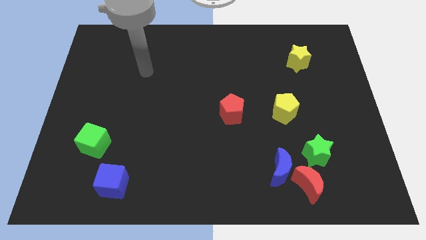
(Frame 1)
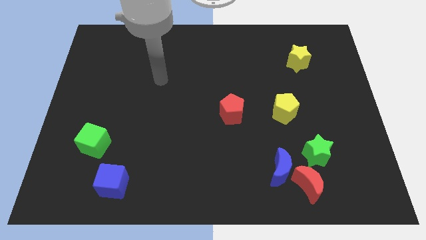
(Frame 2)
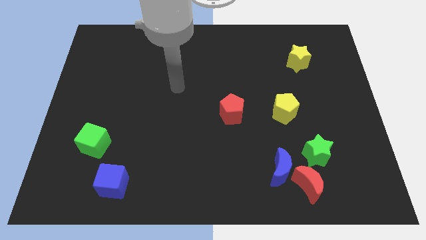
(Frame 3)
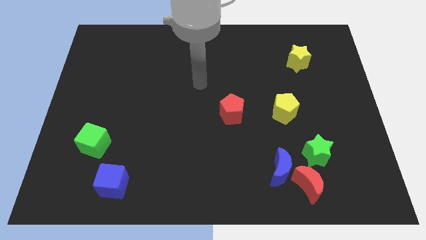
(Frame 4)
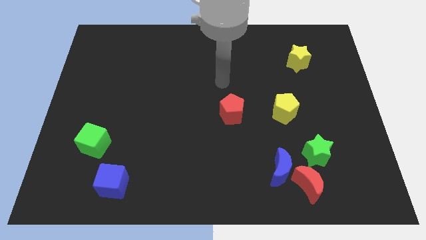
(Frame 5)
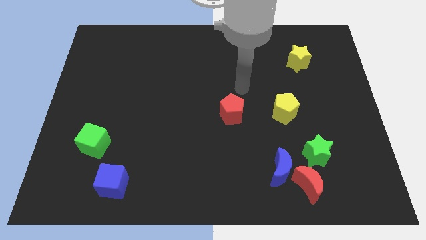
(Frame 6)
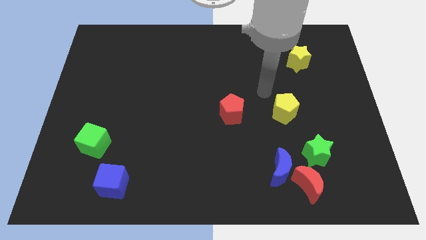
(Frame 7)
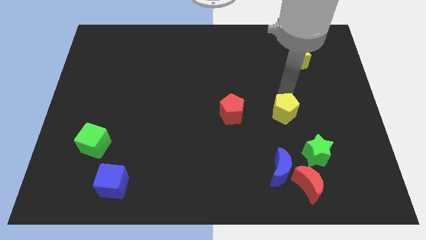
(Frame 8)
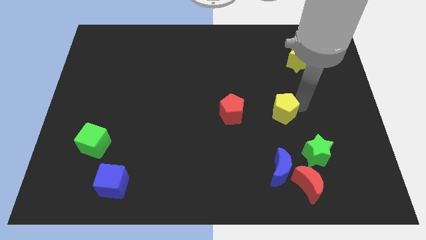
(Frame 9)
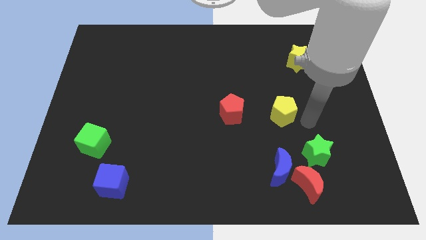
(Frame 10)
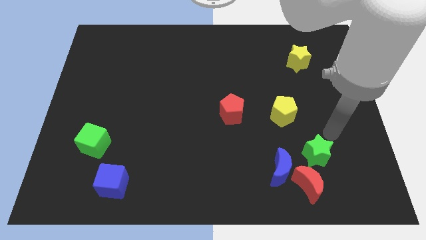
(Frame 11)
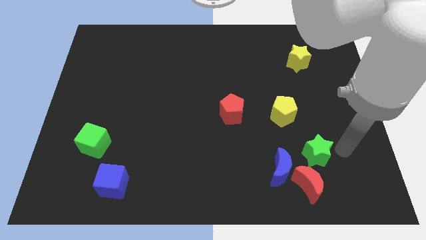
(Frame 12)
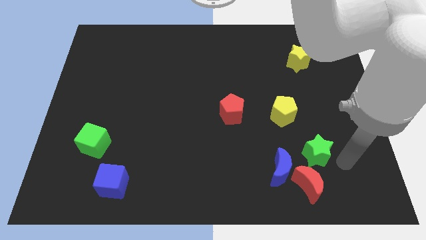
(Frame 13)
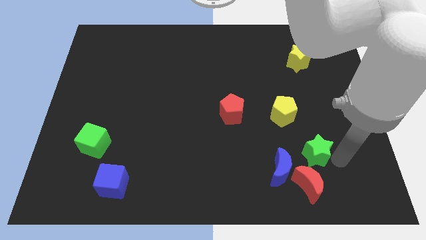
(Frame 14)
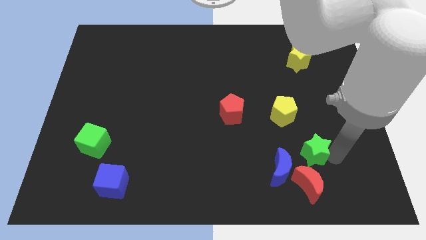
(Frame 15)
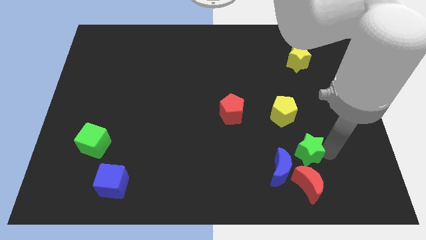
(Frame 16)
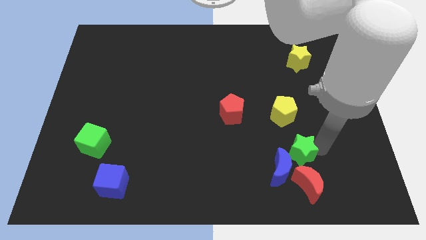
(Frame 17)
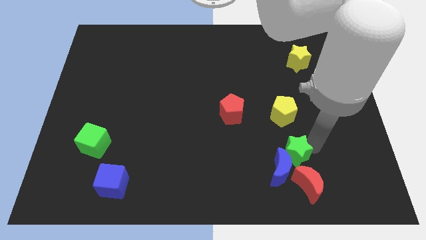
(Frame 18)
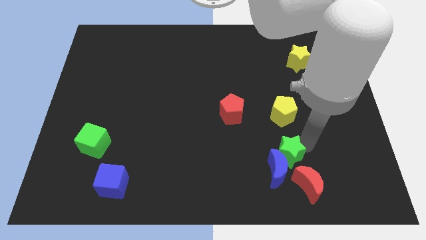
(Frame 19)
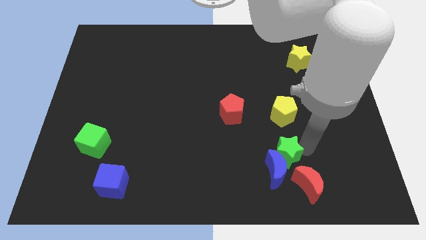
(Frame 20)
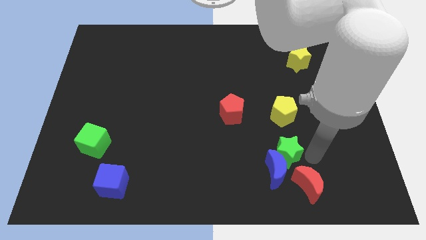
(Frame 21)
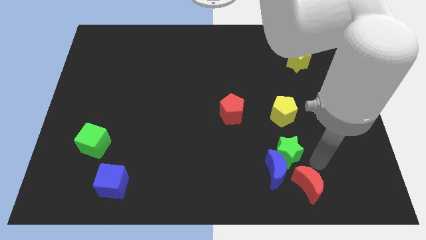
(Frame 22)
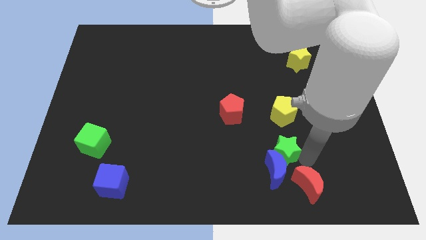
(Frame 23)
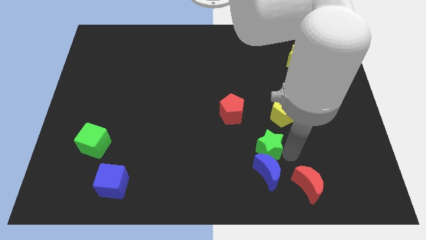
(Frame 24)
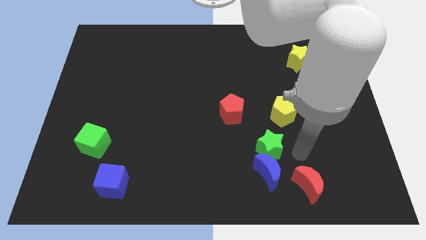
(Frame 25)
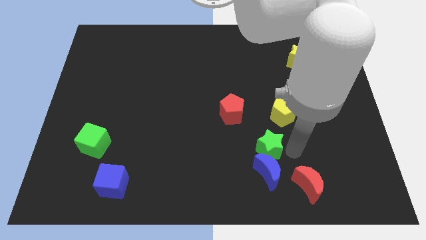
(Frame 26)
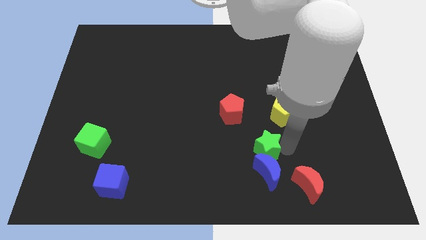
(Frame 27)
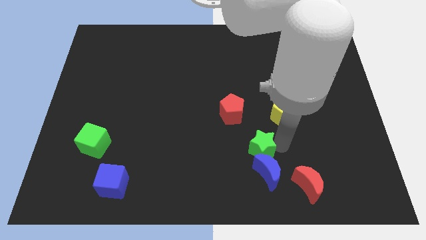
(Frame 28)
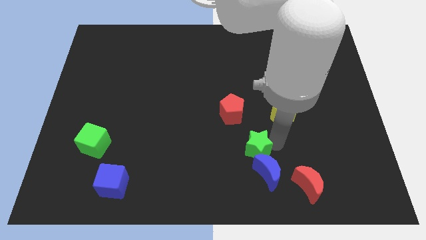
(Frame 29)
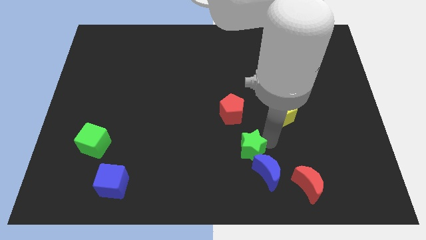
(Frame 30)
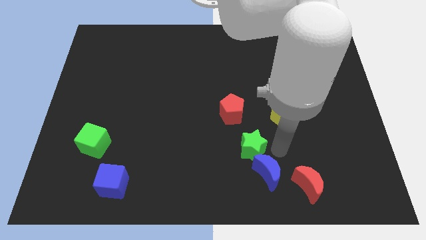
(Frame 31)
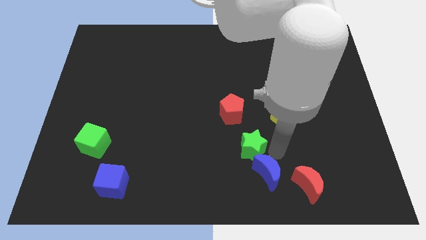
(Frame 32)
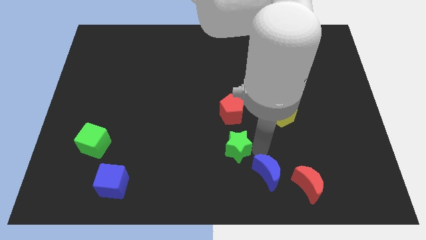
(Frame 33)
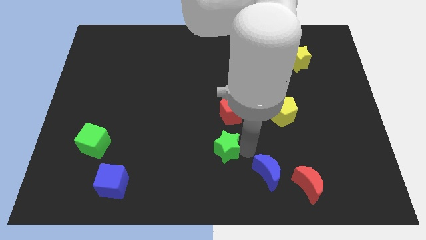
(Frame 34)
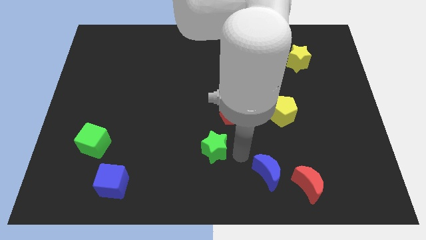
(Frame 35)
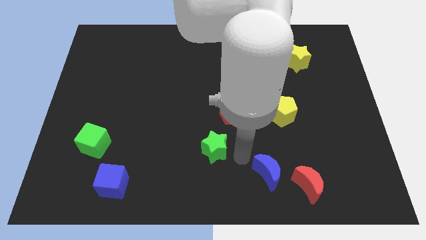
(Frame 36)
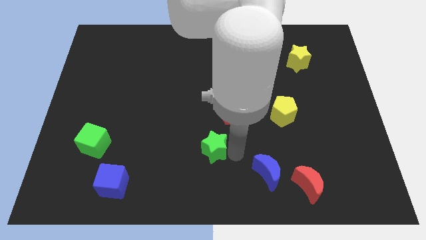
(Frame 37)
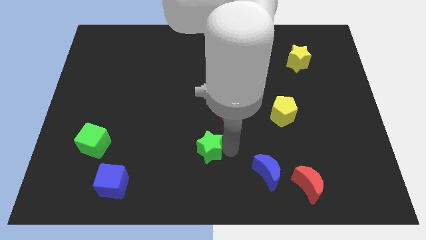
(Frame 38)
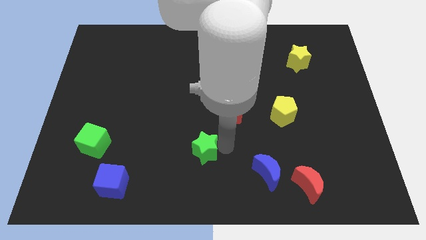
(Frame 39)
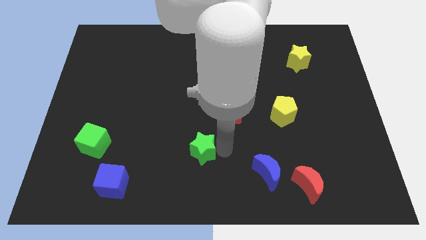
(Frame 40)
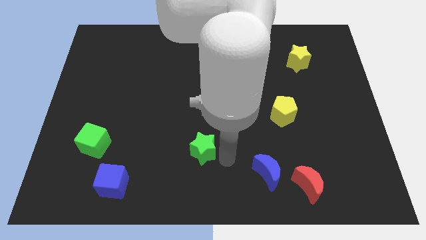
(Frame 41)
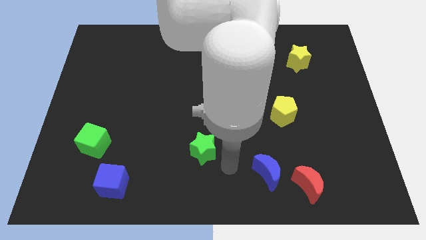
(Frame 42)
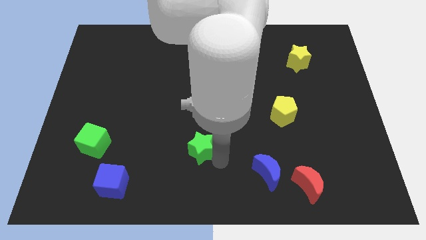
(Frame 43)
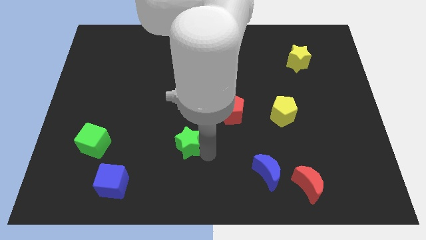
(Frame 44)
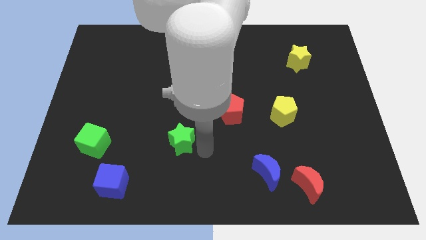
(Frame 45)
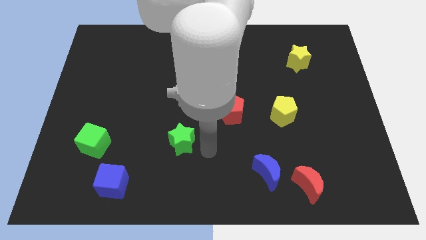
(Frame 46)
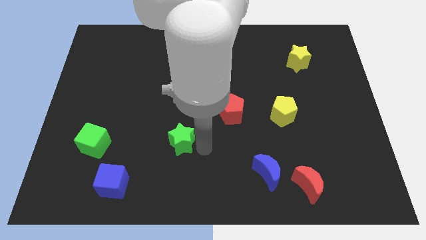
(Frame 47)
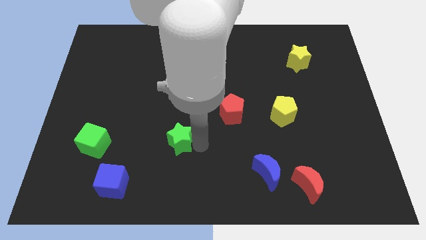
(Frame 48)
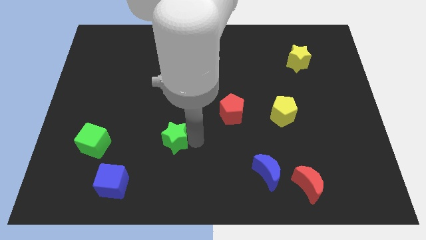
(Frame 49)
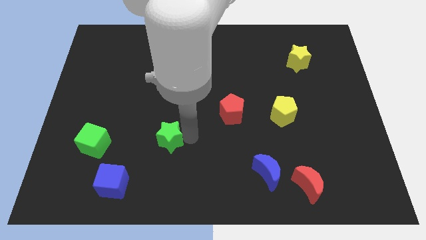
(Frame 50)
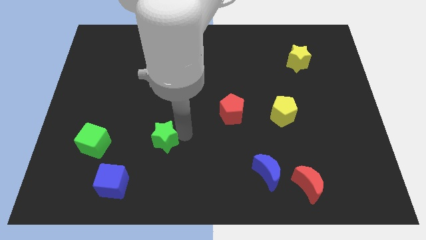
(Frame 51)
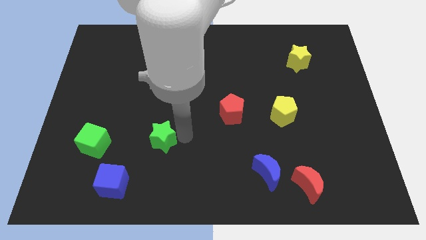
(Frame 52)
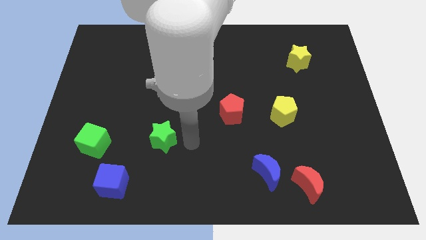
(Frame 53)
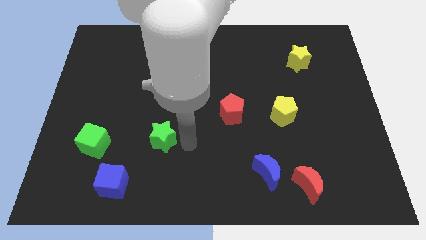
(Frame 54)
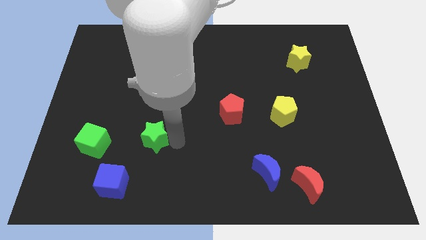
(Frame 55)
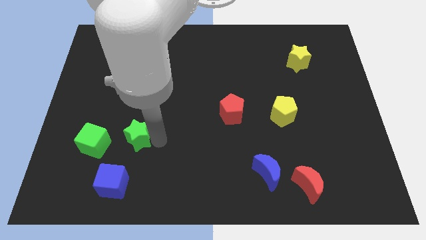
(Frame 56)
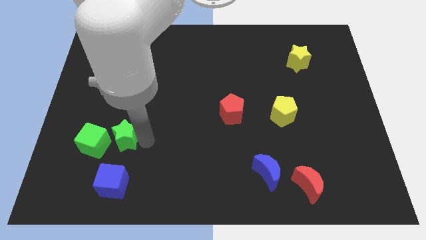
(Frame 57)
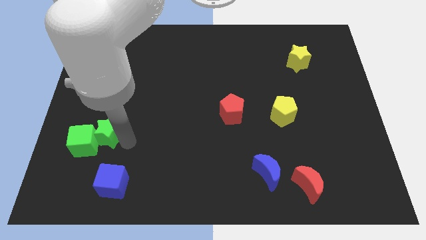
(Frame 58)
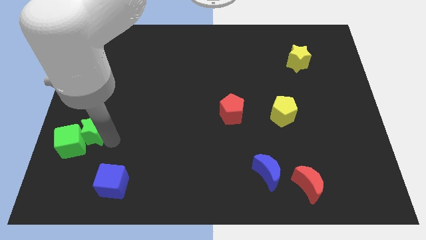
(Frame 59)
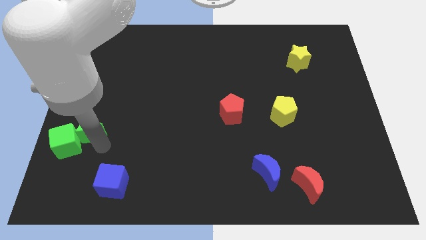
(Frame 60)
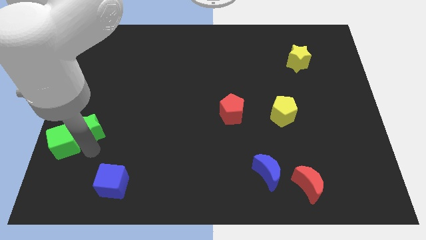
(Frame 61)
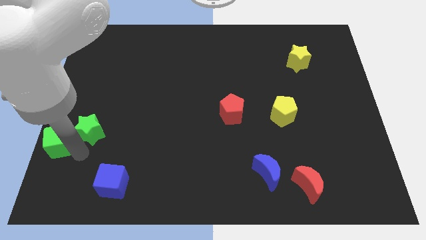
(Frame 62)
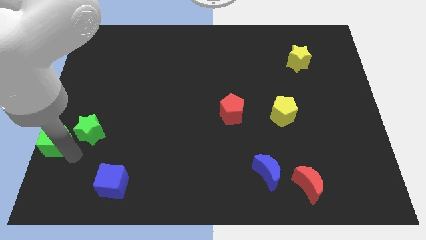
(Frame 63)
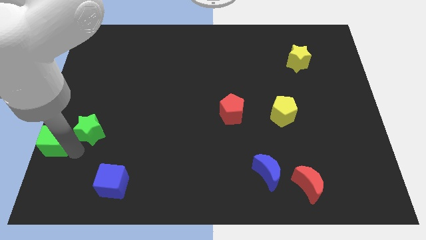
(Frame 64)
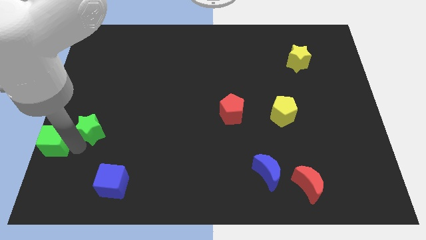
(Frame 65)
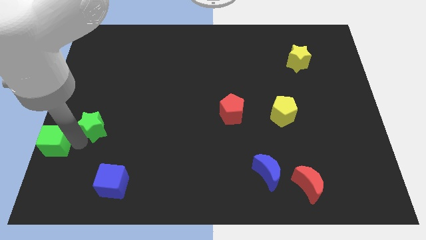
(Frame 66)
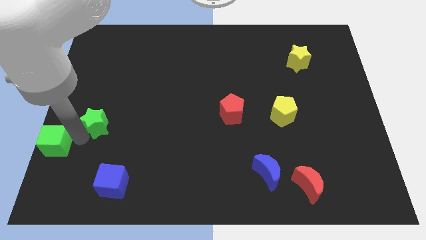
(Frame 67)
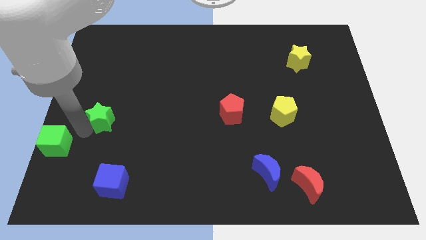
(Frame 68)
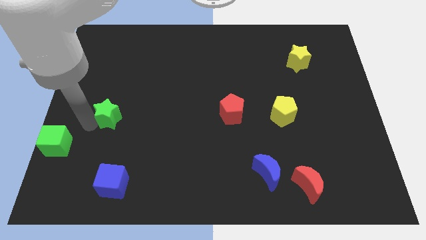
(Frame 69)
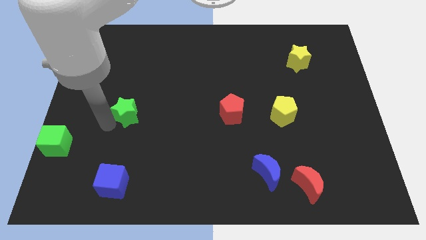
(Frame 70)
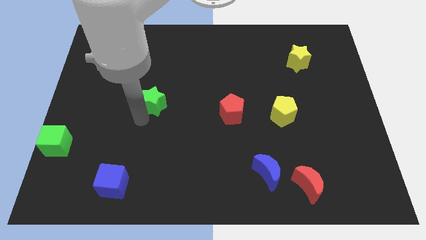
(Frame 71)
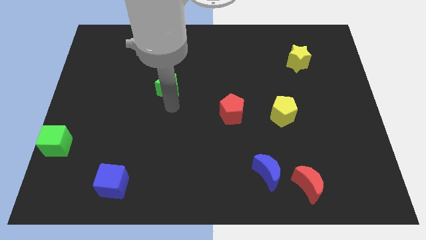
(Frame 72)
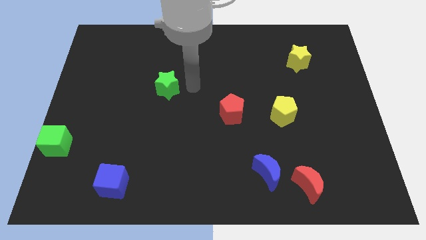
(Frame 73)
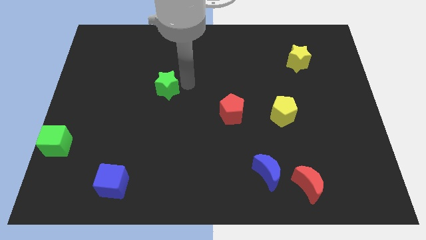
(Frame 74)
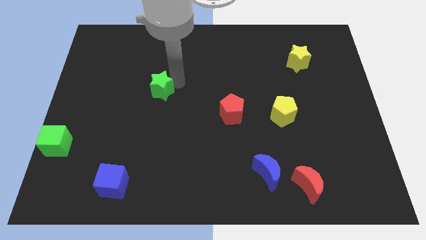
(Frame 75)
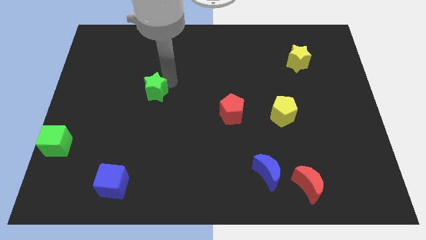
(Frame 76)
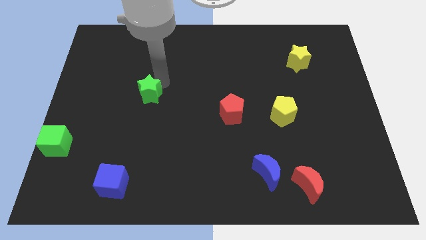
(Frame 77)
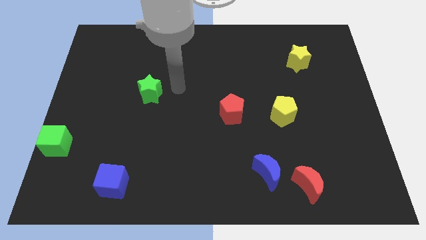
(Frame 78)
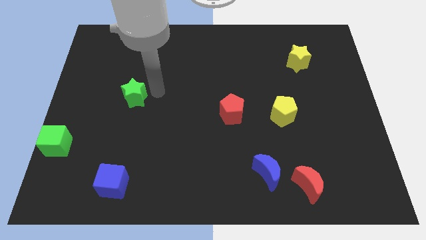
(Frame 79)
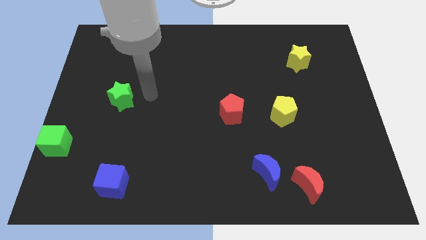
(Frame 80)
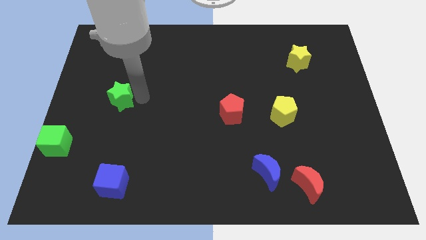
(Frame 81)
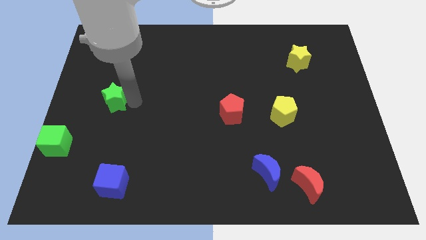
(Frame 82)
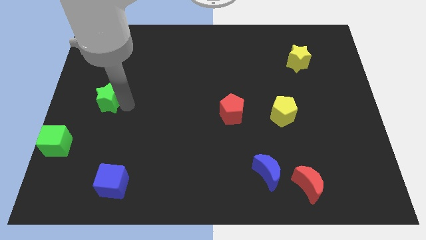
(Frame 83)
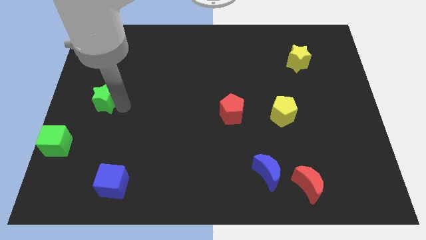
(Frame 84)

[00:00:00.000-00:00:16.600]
move the green star to the left side
